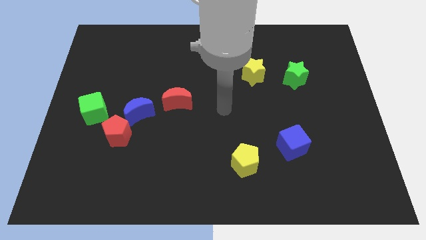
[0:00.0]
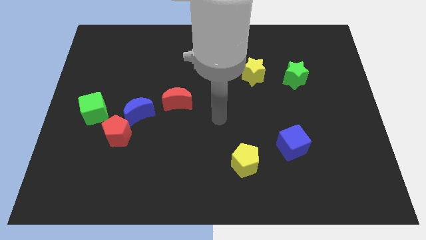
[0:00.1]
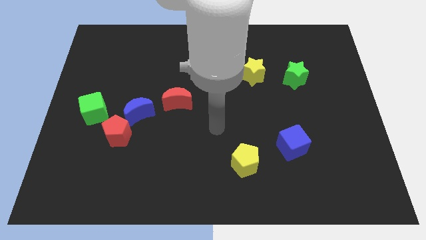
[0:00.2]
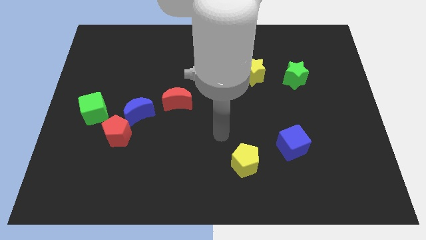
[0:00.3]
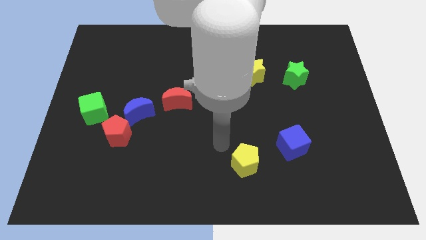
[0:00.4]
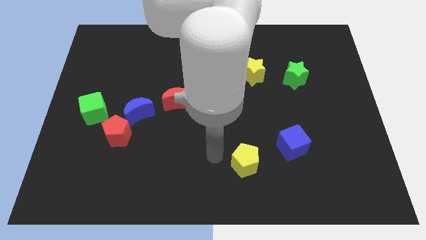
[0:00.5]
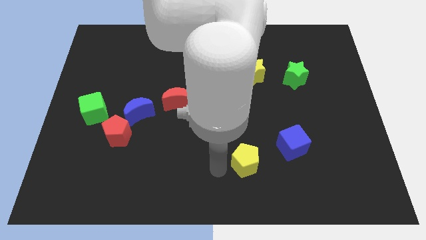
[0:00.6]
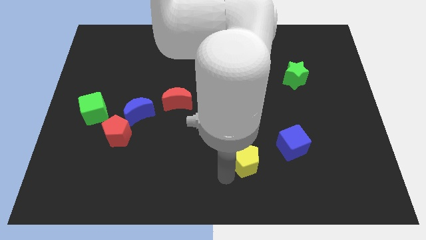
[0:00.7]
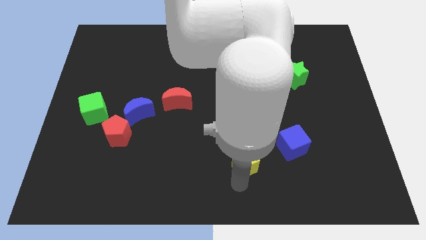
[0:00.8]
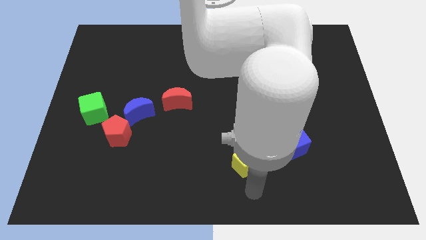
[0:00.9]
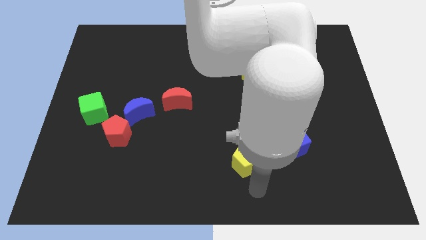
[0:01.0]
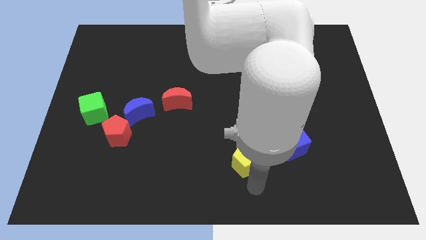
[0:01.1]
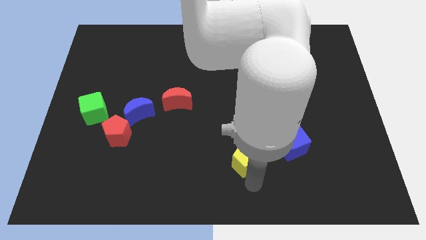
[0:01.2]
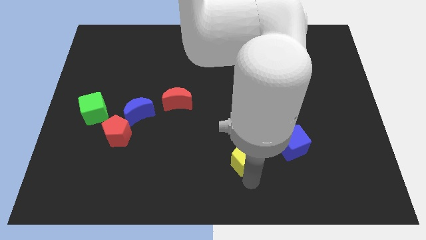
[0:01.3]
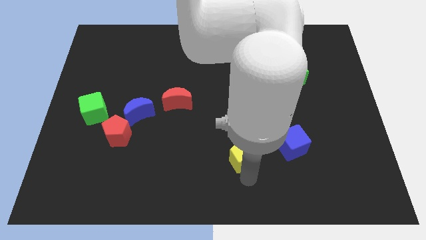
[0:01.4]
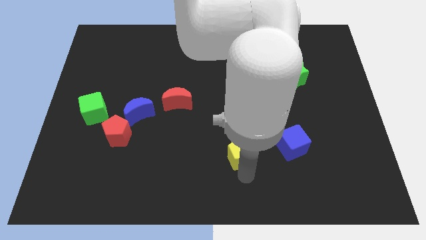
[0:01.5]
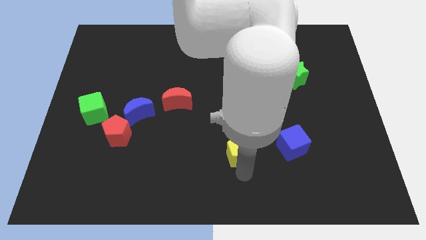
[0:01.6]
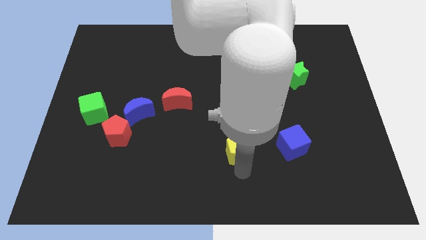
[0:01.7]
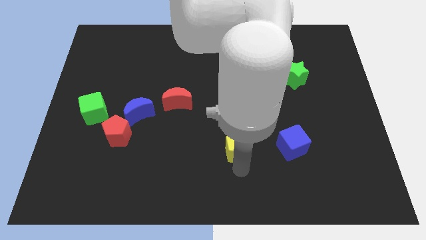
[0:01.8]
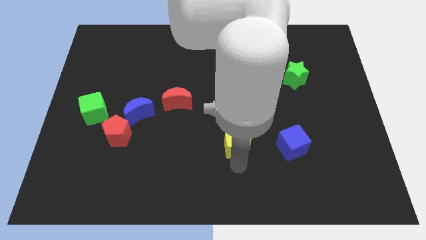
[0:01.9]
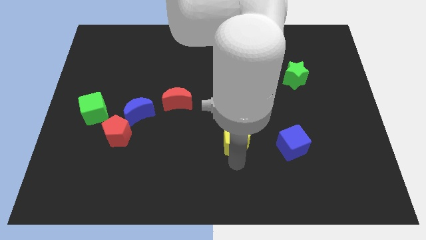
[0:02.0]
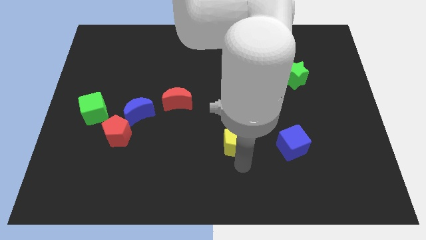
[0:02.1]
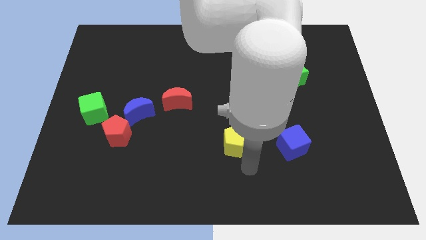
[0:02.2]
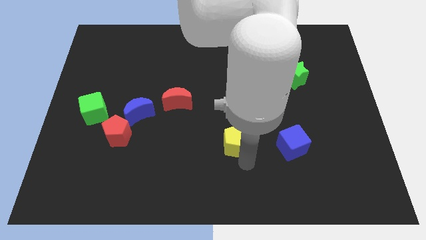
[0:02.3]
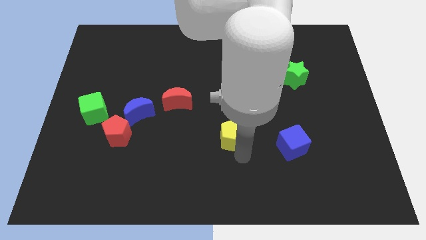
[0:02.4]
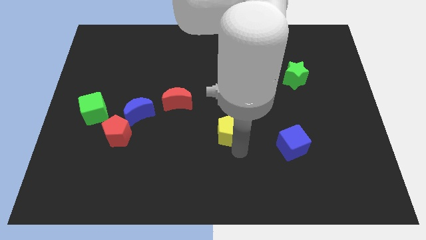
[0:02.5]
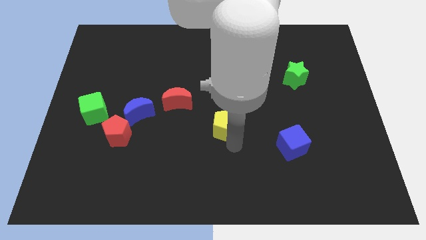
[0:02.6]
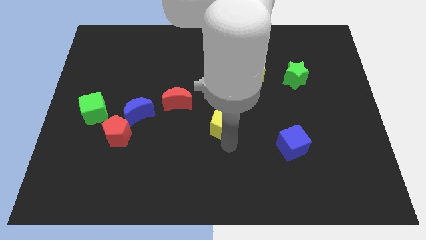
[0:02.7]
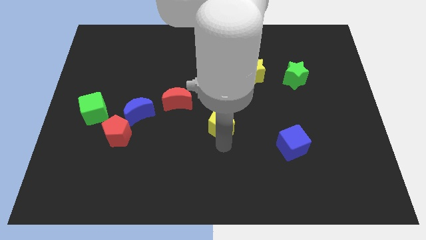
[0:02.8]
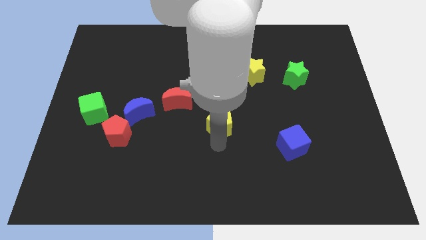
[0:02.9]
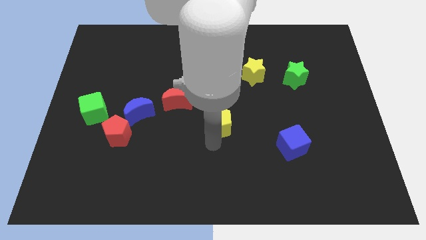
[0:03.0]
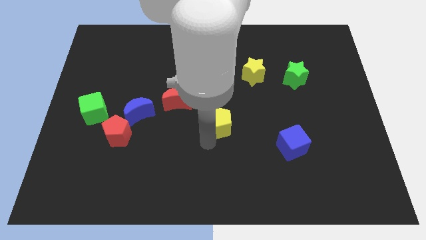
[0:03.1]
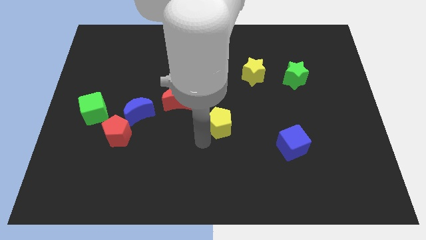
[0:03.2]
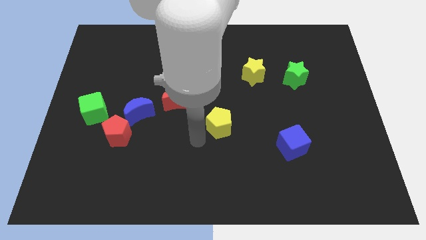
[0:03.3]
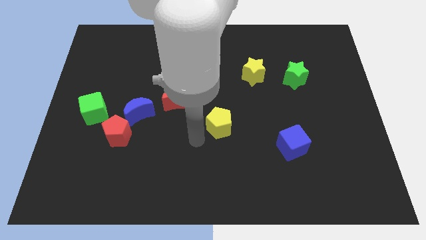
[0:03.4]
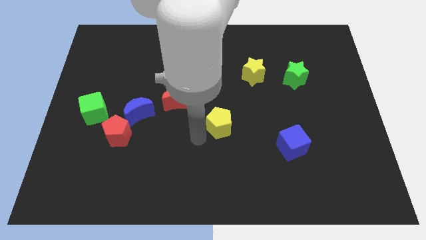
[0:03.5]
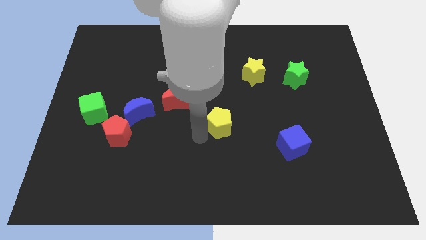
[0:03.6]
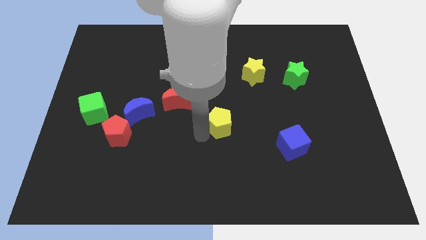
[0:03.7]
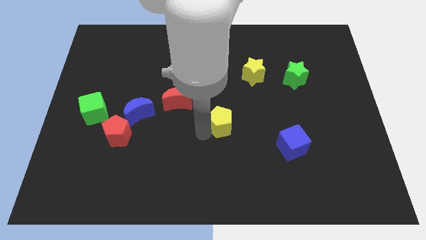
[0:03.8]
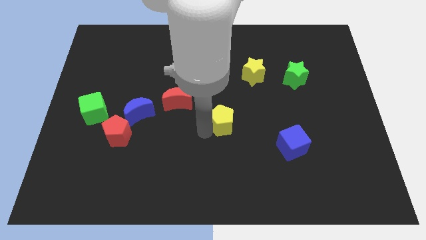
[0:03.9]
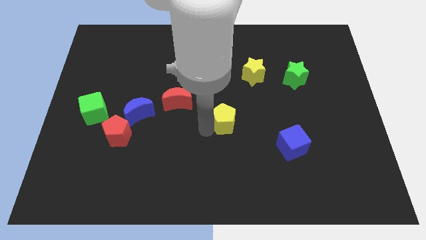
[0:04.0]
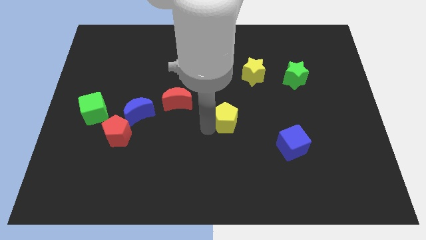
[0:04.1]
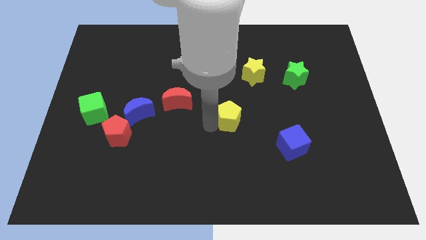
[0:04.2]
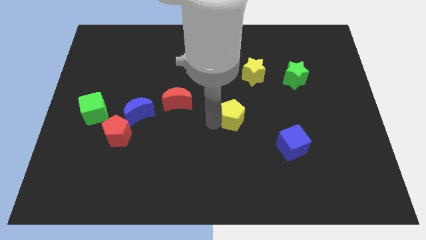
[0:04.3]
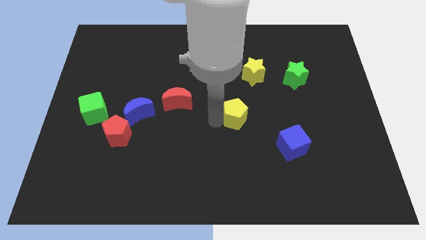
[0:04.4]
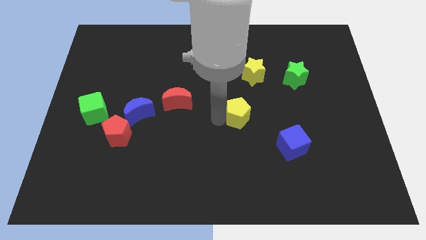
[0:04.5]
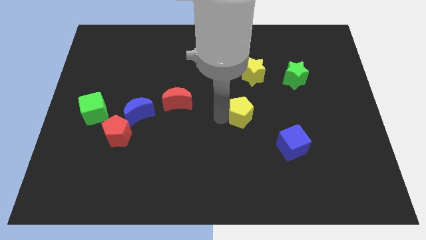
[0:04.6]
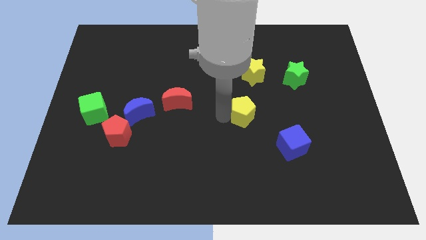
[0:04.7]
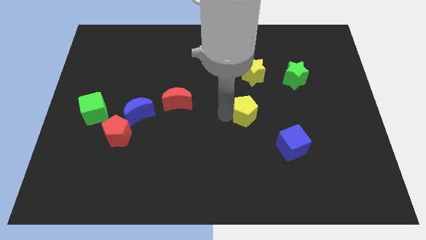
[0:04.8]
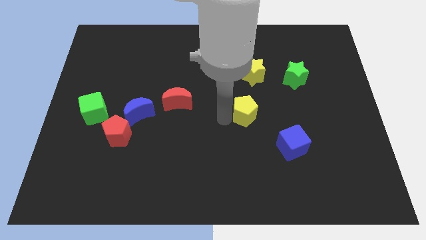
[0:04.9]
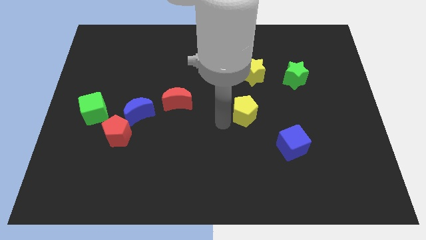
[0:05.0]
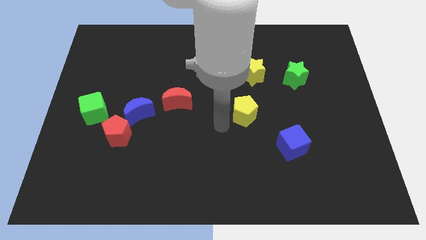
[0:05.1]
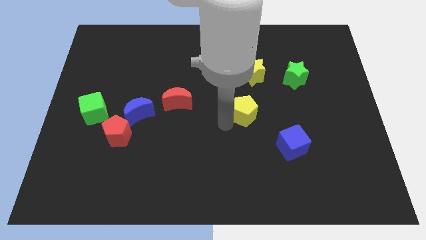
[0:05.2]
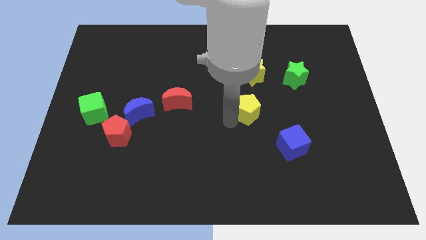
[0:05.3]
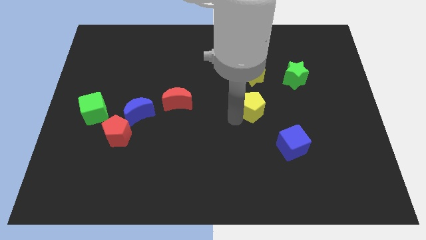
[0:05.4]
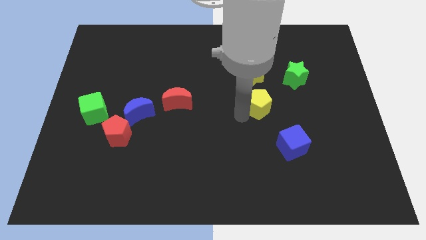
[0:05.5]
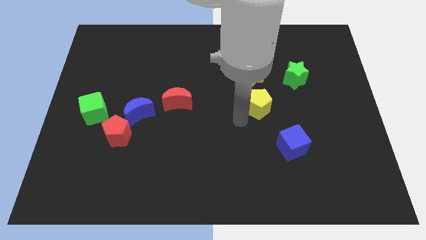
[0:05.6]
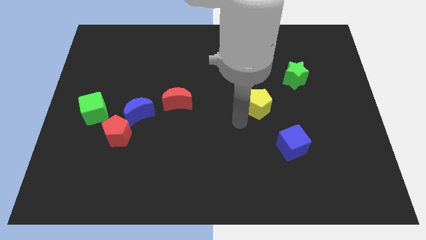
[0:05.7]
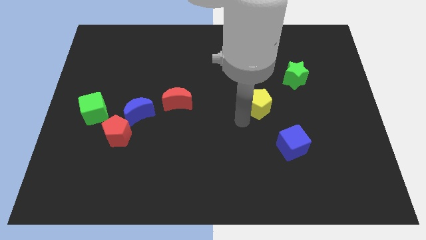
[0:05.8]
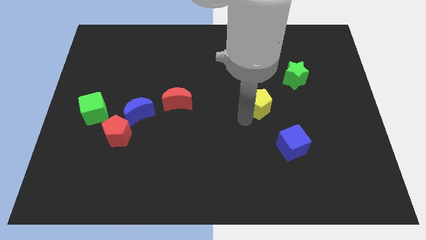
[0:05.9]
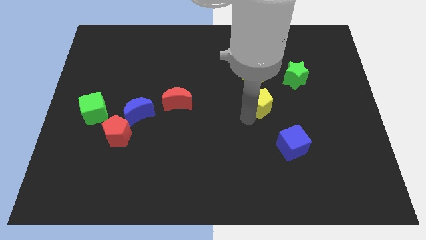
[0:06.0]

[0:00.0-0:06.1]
move the yellow pentagon to the bottom left of the green star
